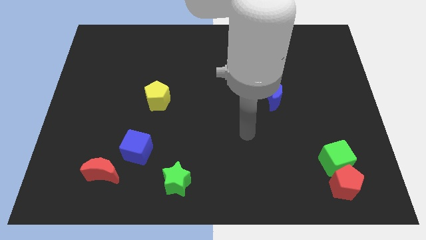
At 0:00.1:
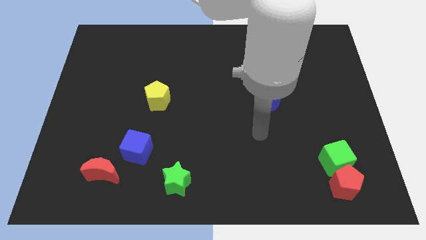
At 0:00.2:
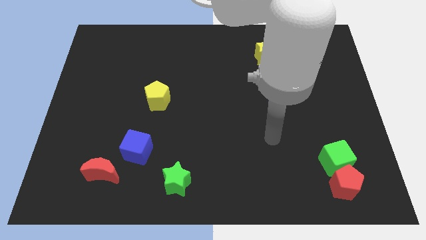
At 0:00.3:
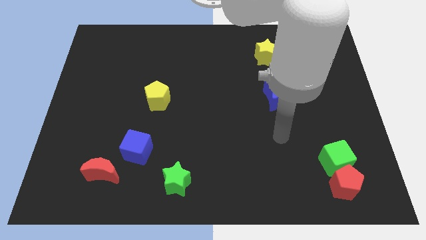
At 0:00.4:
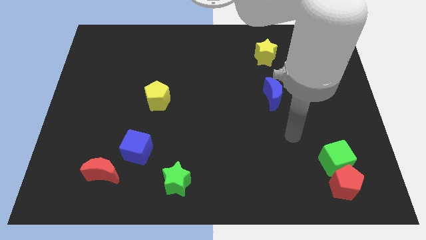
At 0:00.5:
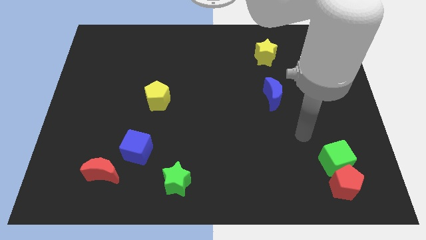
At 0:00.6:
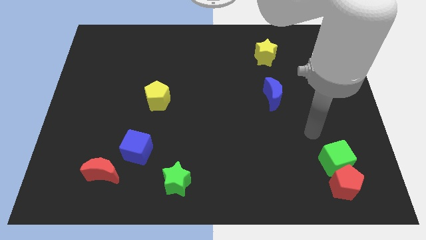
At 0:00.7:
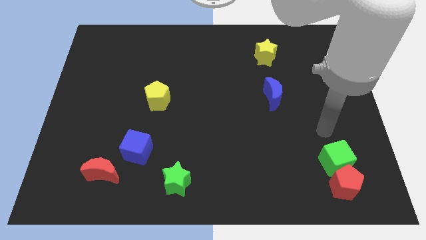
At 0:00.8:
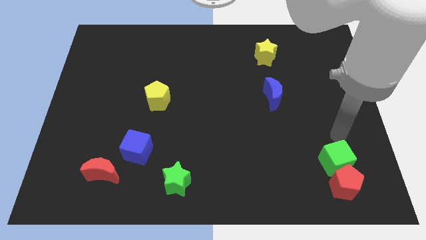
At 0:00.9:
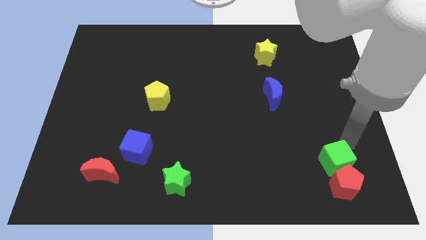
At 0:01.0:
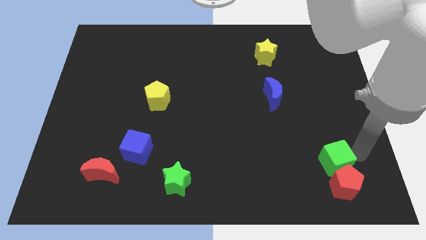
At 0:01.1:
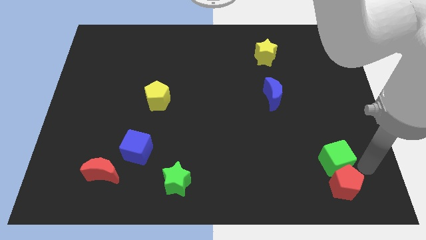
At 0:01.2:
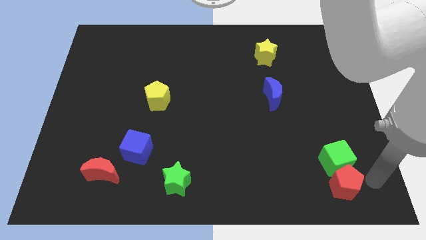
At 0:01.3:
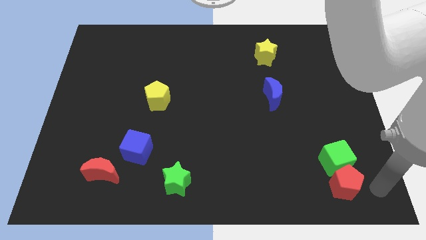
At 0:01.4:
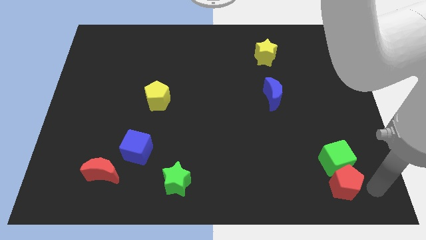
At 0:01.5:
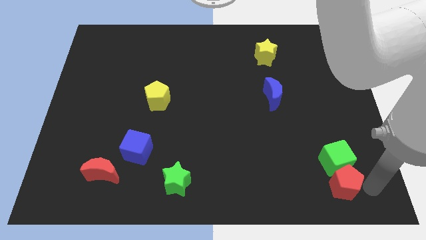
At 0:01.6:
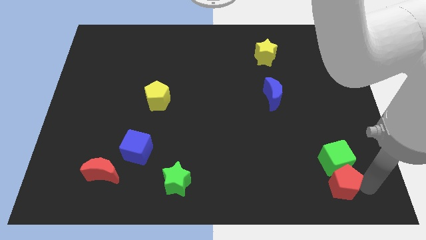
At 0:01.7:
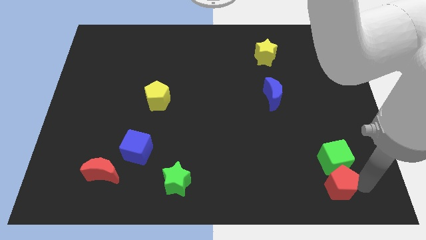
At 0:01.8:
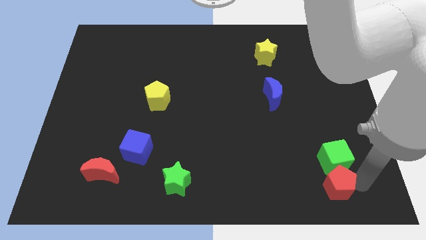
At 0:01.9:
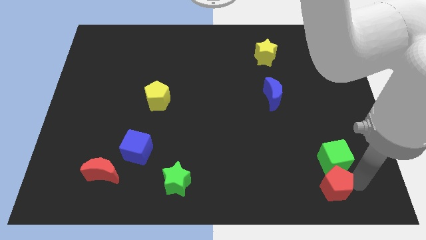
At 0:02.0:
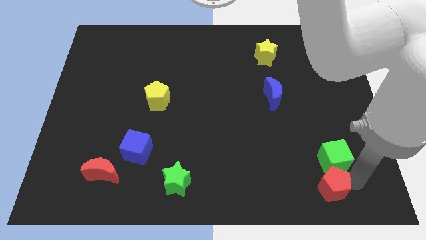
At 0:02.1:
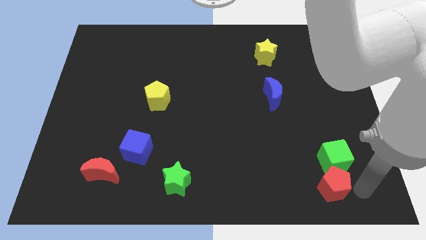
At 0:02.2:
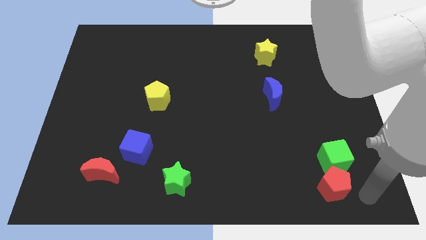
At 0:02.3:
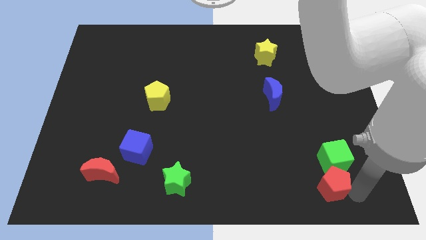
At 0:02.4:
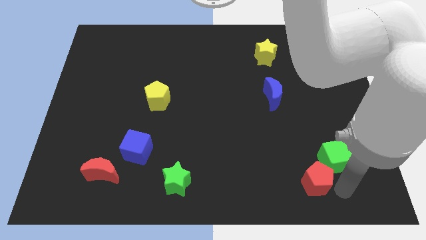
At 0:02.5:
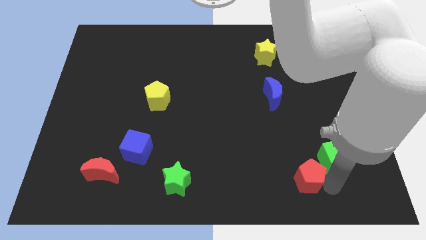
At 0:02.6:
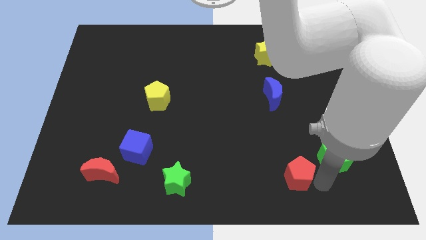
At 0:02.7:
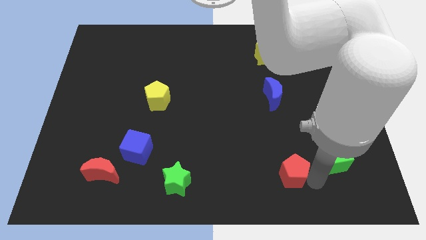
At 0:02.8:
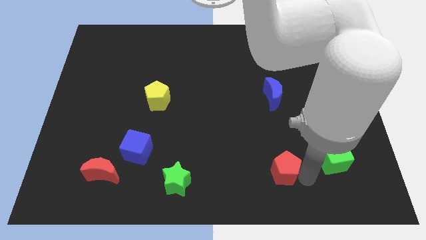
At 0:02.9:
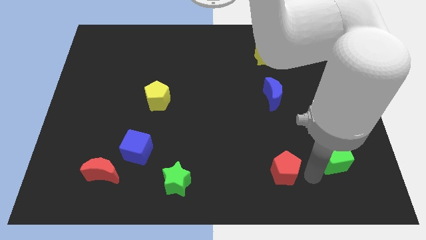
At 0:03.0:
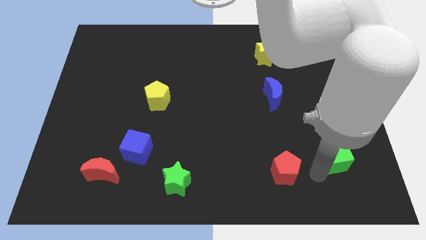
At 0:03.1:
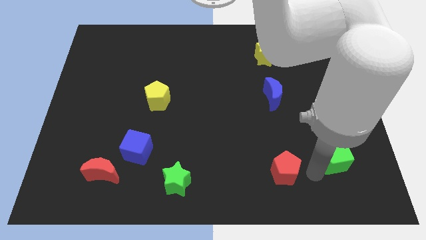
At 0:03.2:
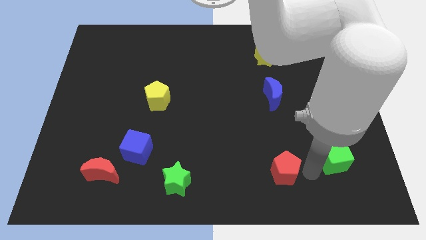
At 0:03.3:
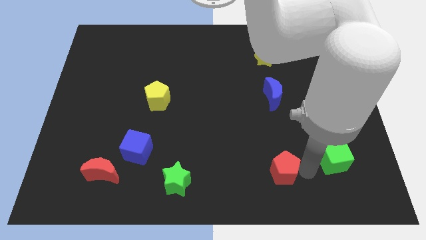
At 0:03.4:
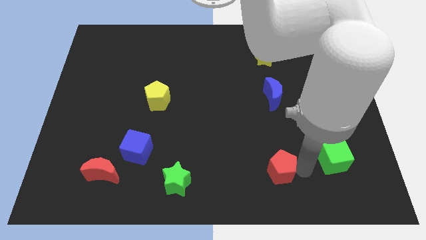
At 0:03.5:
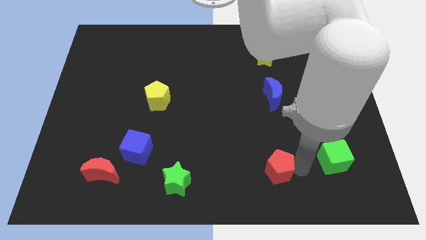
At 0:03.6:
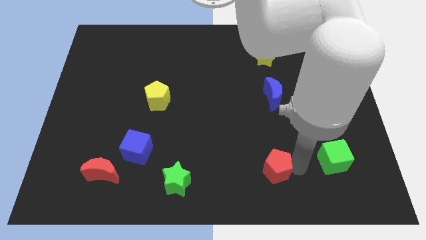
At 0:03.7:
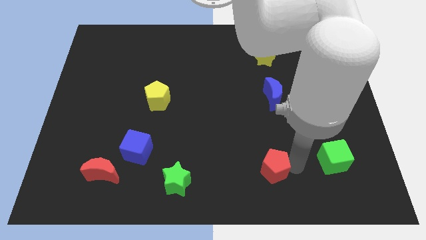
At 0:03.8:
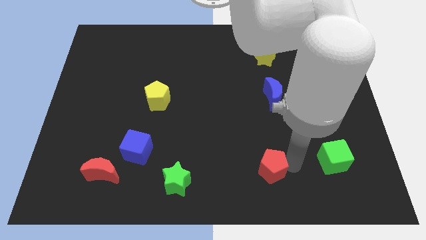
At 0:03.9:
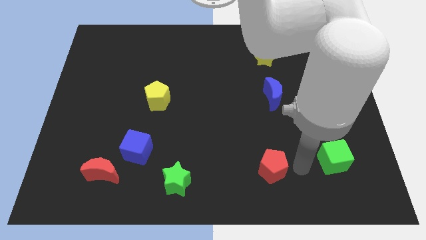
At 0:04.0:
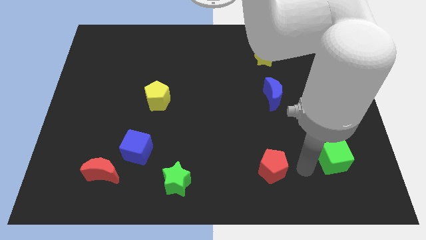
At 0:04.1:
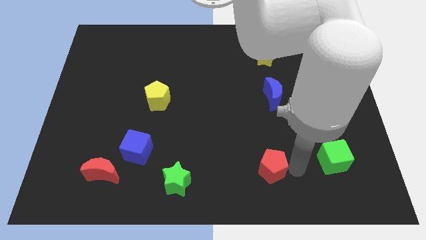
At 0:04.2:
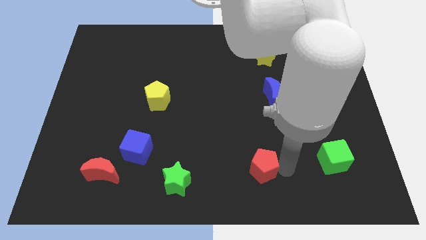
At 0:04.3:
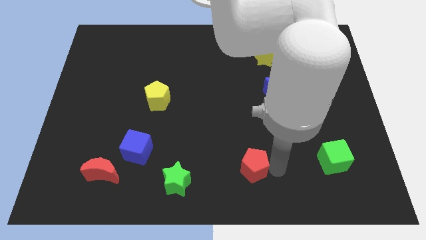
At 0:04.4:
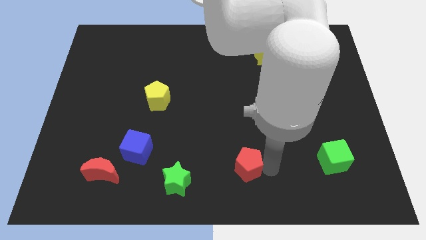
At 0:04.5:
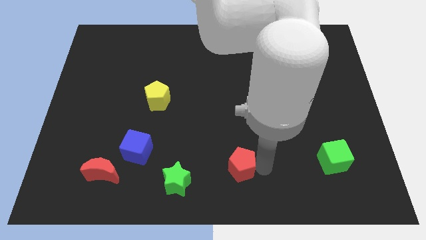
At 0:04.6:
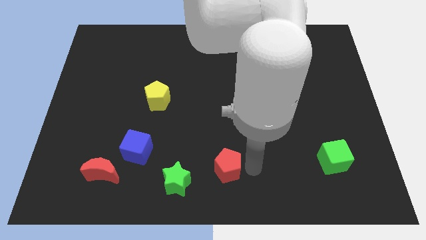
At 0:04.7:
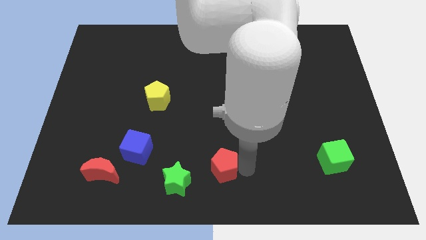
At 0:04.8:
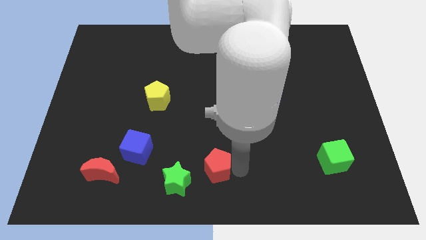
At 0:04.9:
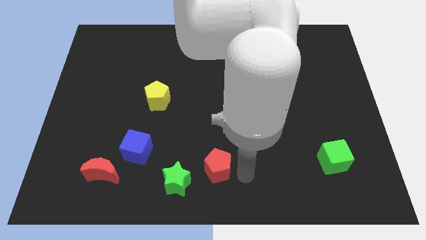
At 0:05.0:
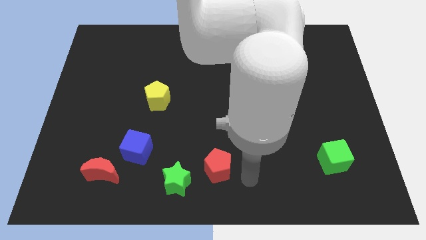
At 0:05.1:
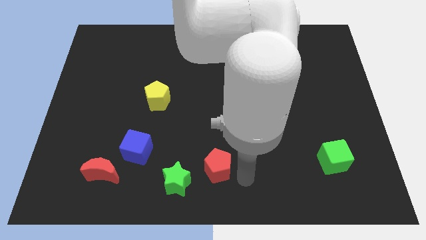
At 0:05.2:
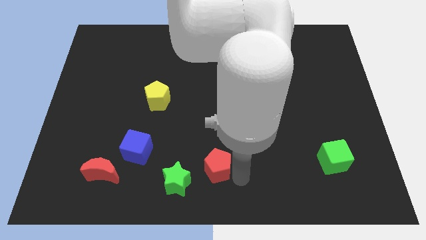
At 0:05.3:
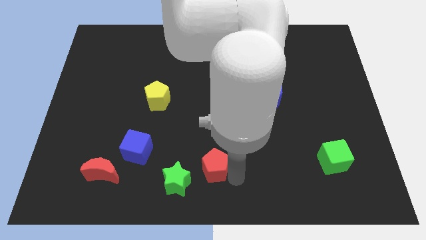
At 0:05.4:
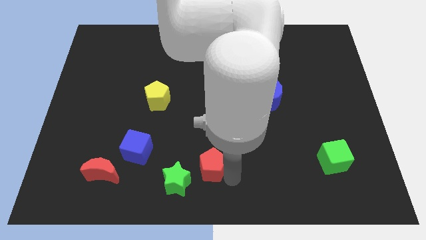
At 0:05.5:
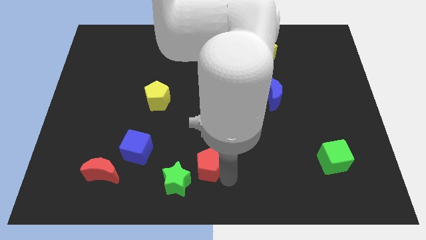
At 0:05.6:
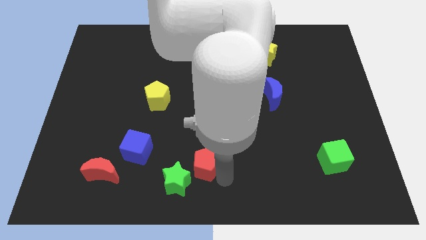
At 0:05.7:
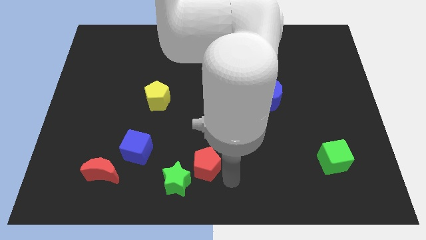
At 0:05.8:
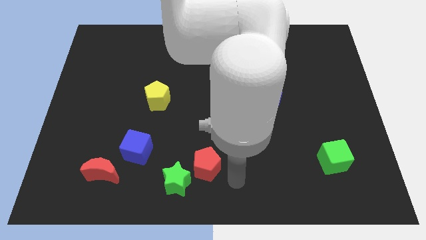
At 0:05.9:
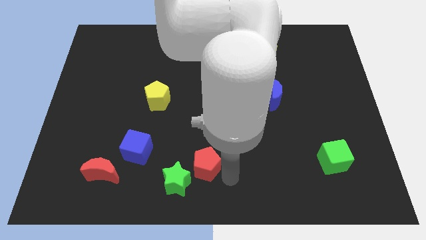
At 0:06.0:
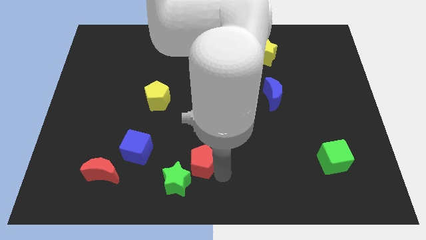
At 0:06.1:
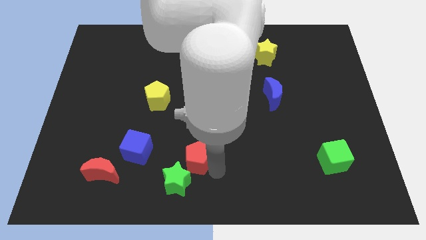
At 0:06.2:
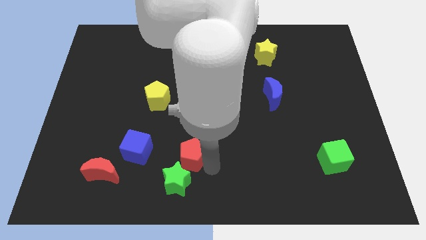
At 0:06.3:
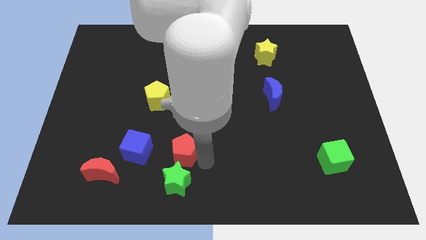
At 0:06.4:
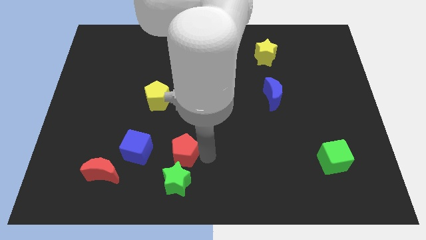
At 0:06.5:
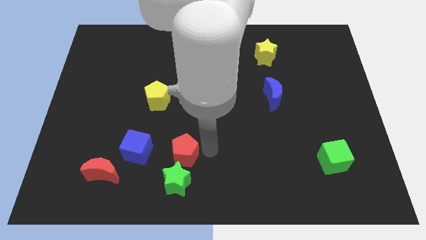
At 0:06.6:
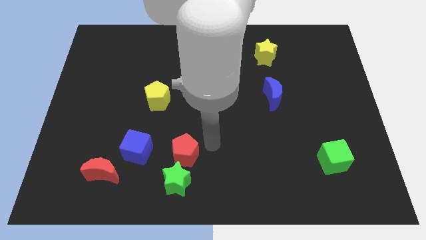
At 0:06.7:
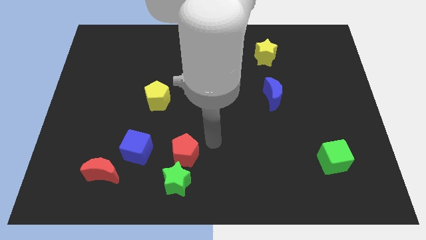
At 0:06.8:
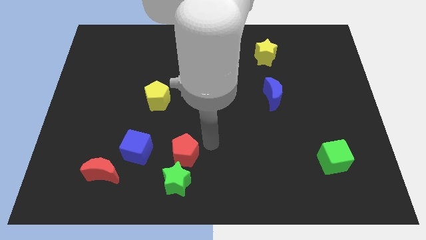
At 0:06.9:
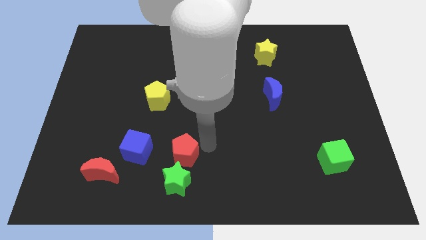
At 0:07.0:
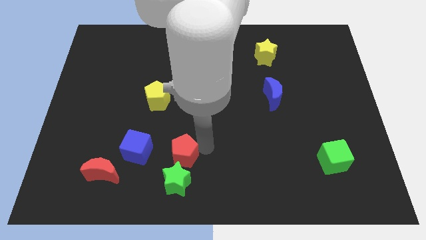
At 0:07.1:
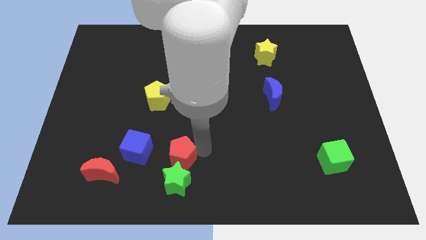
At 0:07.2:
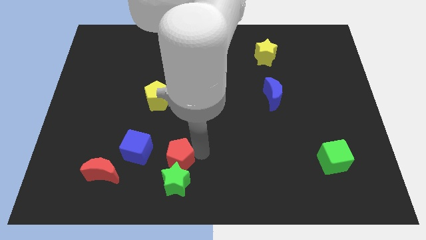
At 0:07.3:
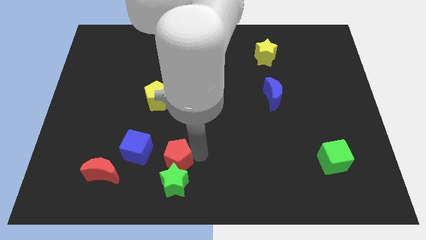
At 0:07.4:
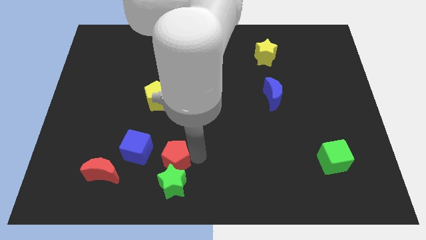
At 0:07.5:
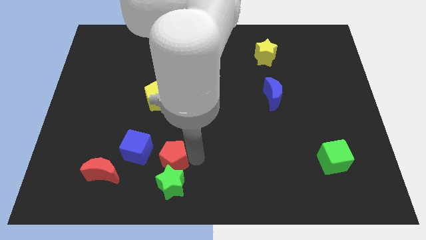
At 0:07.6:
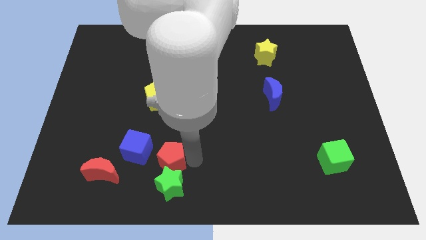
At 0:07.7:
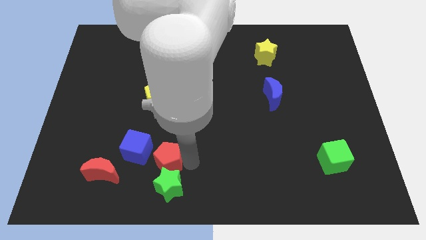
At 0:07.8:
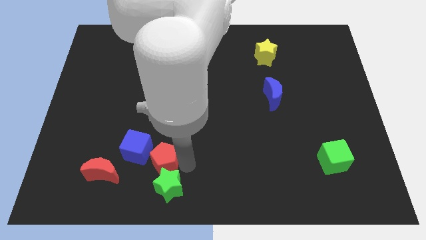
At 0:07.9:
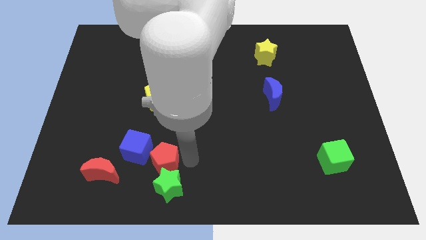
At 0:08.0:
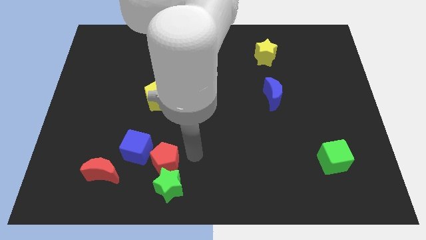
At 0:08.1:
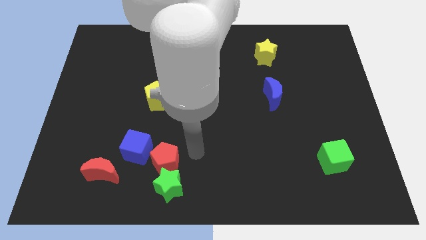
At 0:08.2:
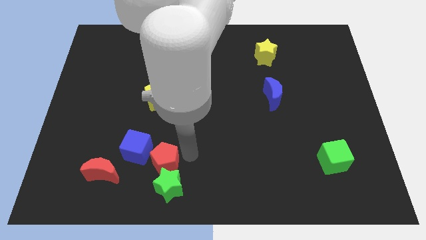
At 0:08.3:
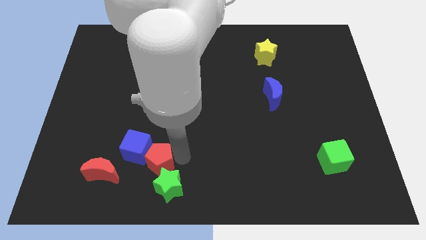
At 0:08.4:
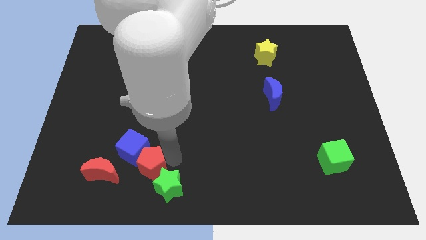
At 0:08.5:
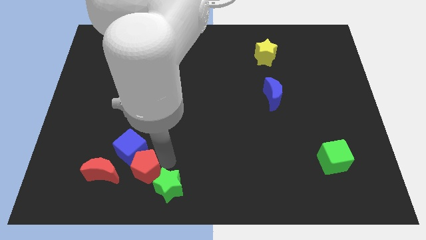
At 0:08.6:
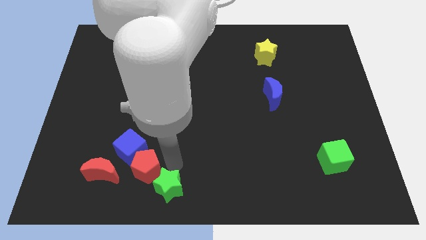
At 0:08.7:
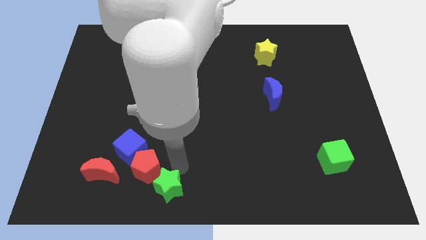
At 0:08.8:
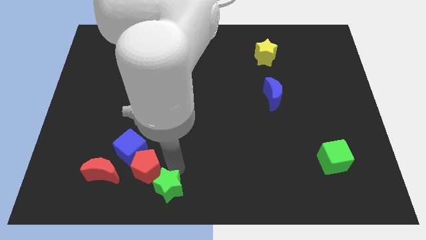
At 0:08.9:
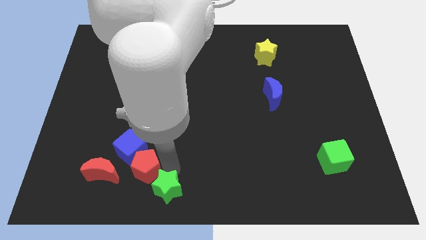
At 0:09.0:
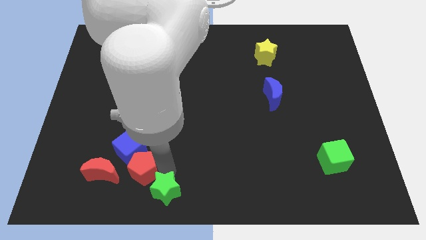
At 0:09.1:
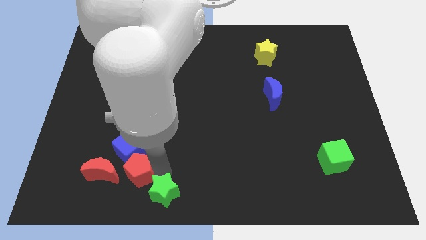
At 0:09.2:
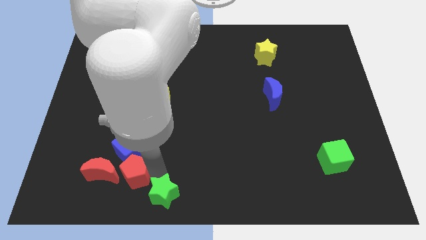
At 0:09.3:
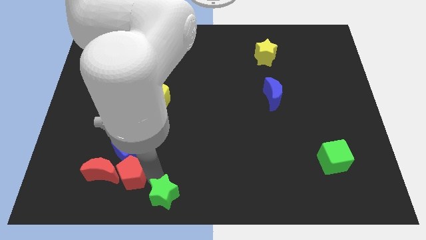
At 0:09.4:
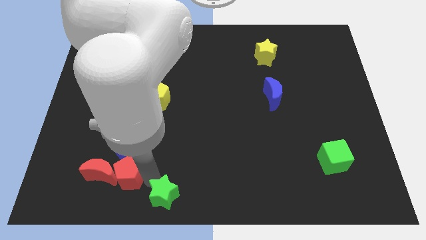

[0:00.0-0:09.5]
slide the red pentagon close to the red moon
